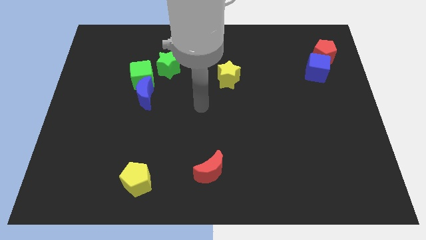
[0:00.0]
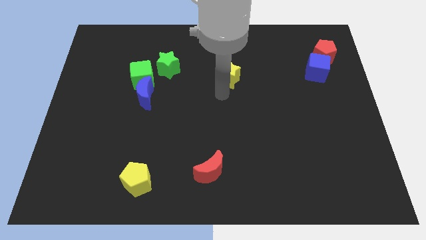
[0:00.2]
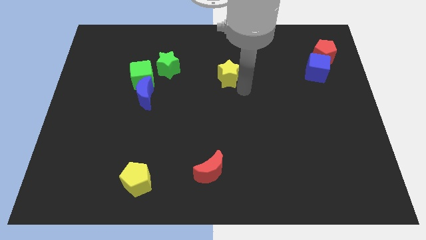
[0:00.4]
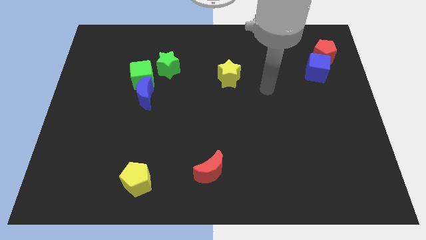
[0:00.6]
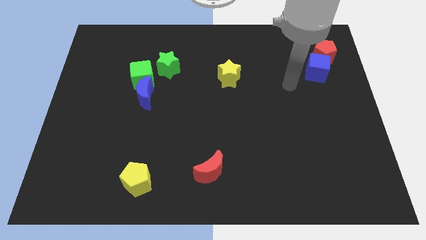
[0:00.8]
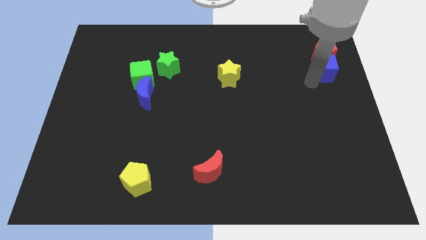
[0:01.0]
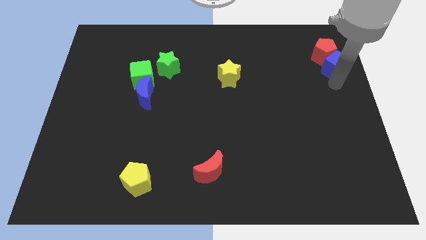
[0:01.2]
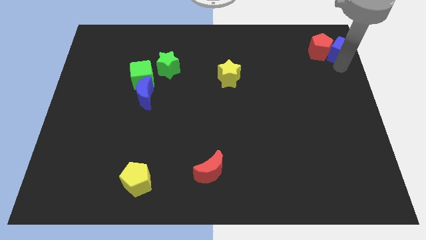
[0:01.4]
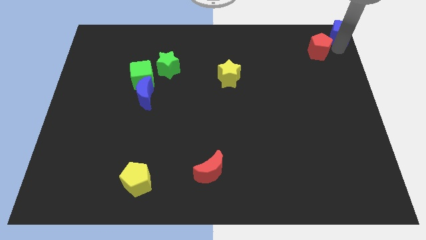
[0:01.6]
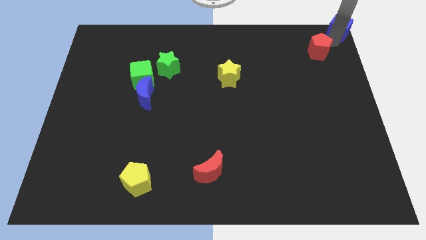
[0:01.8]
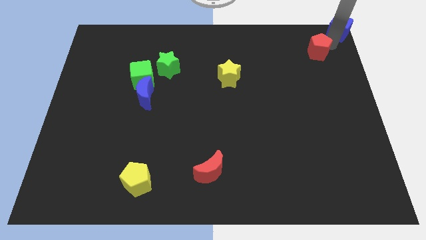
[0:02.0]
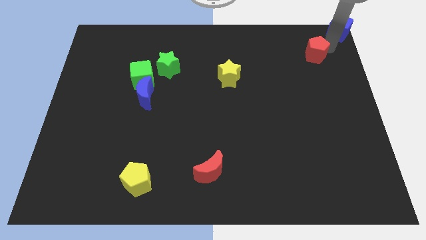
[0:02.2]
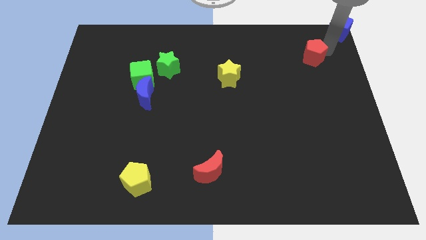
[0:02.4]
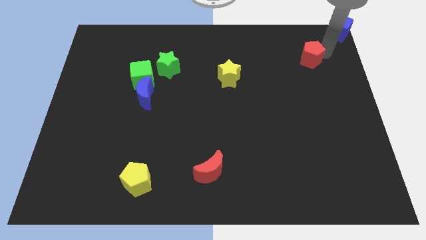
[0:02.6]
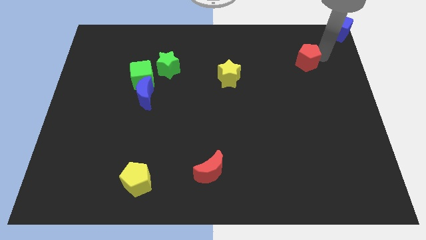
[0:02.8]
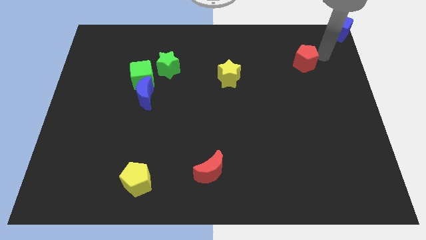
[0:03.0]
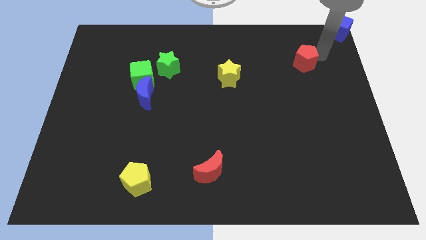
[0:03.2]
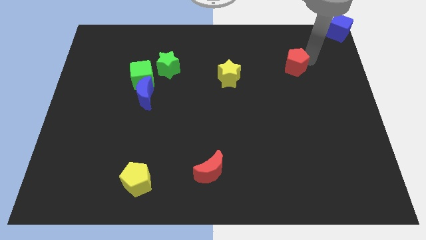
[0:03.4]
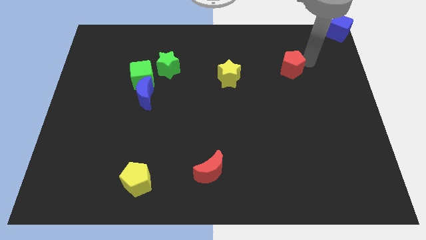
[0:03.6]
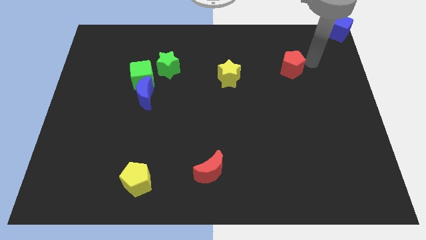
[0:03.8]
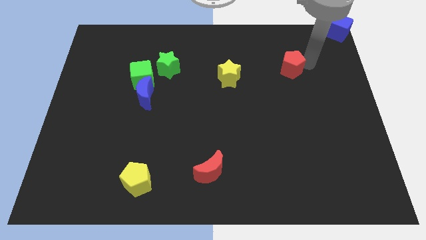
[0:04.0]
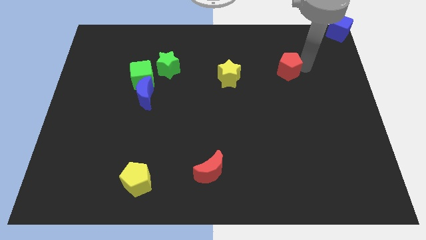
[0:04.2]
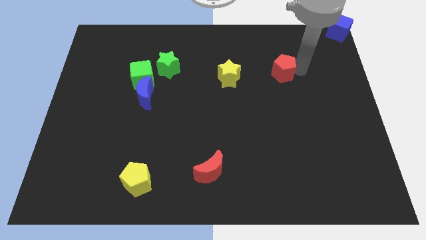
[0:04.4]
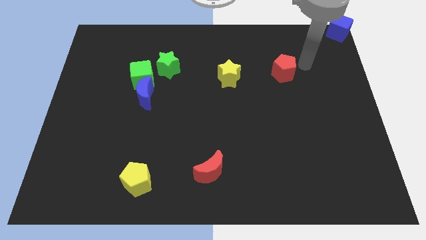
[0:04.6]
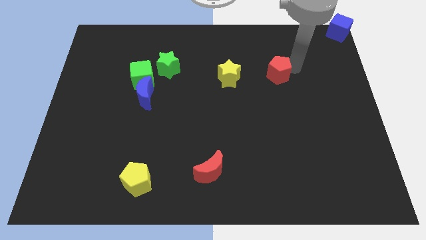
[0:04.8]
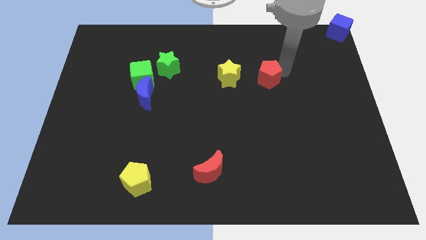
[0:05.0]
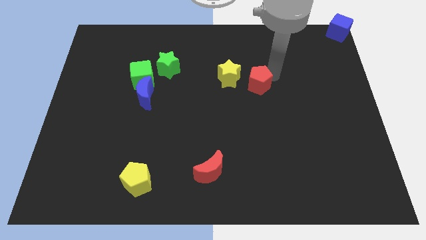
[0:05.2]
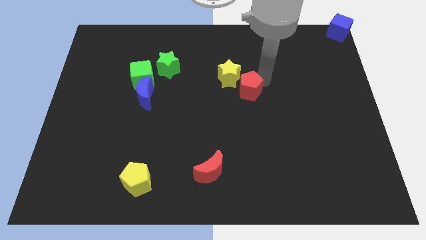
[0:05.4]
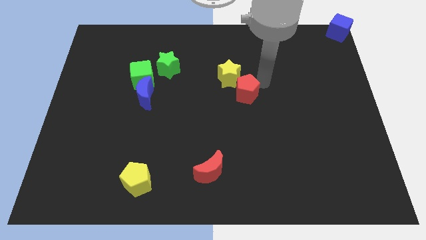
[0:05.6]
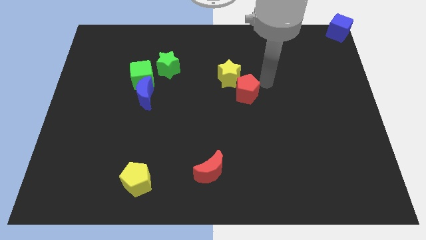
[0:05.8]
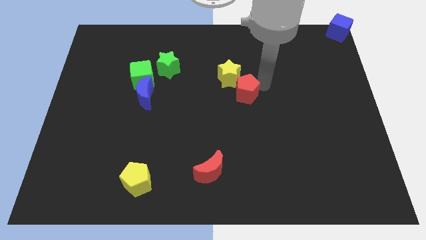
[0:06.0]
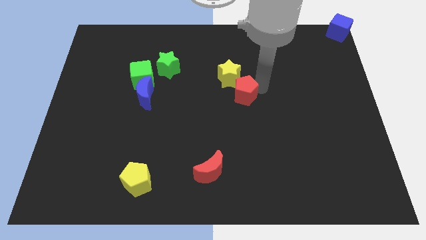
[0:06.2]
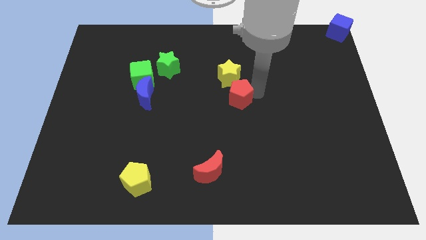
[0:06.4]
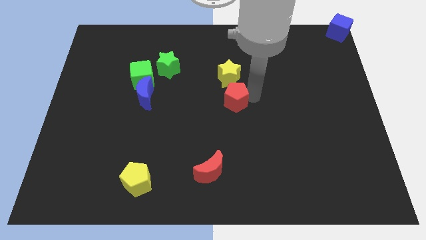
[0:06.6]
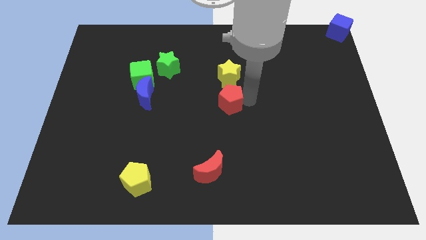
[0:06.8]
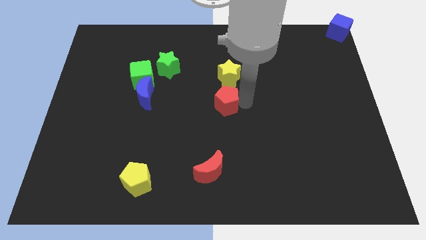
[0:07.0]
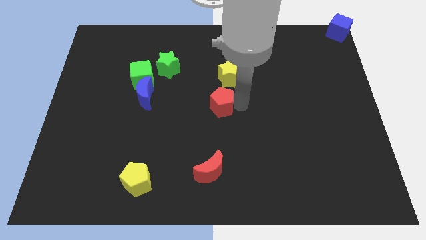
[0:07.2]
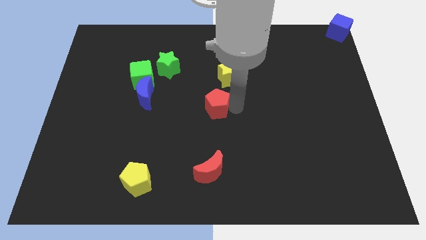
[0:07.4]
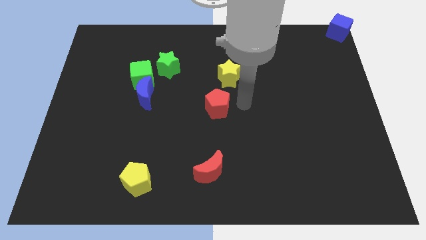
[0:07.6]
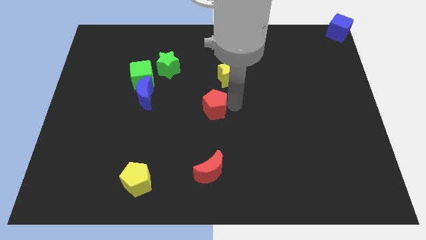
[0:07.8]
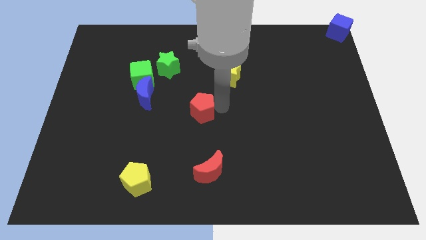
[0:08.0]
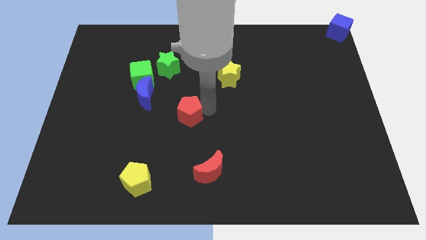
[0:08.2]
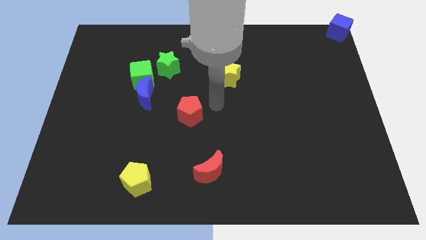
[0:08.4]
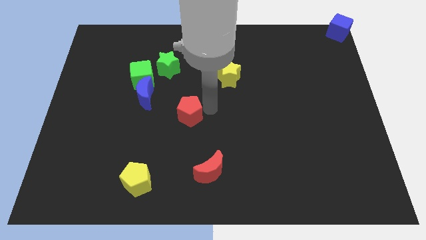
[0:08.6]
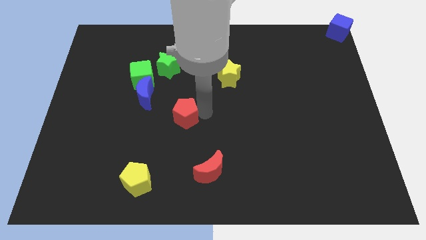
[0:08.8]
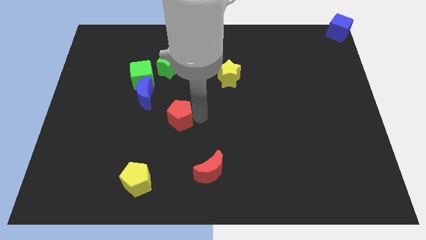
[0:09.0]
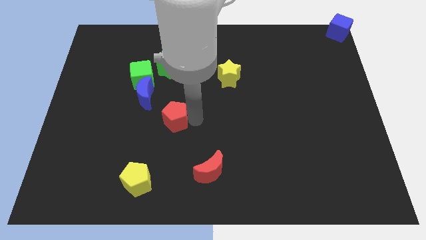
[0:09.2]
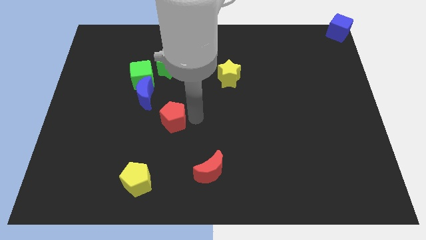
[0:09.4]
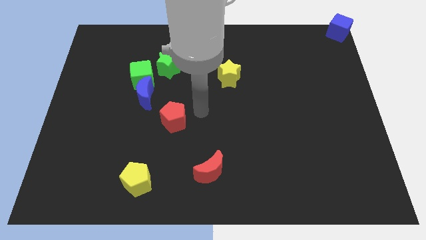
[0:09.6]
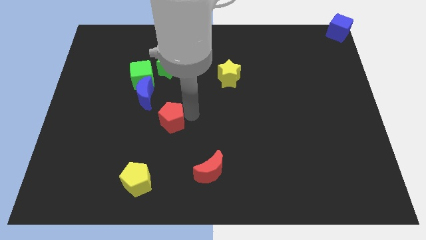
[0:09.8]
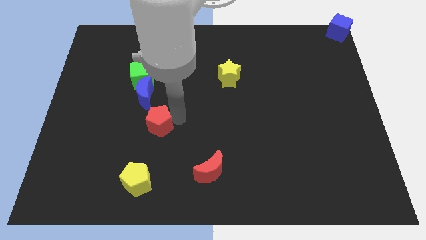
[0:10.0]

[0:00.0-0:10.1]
slide the red pentagon to the bottom side of the blue moon

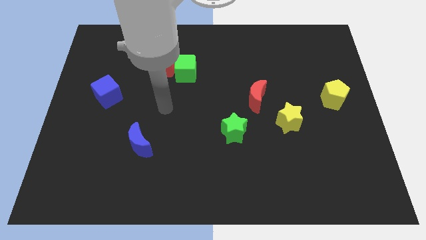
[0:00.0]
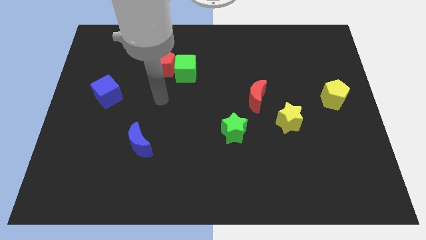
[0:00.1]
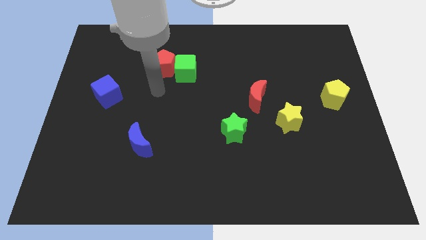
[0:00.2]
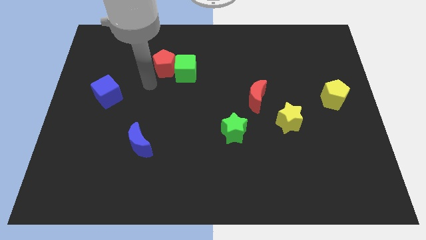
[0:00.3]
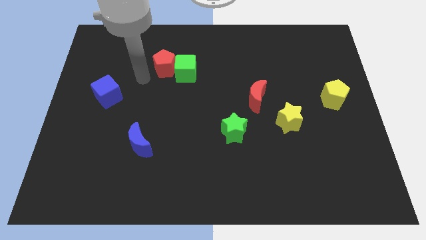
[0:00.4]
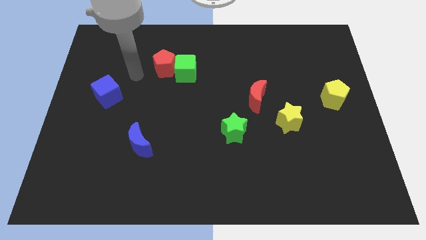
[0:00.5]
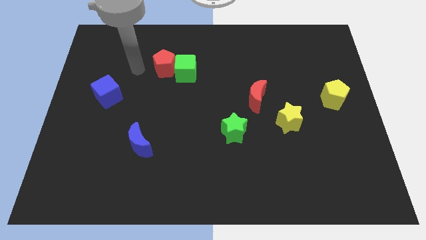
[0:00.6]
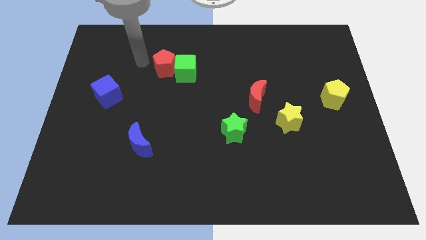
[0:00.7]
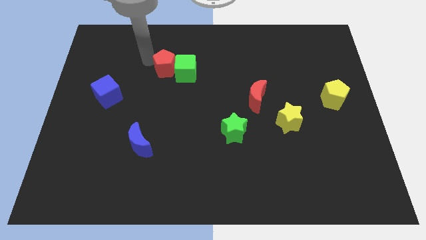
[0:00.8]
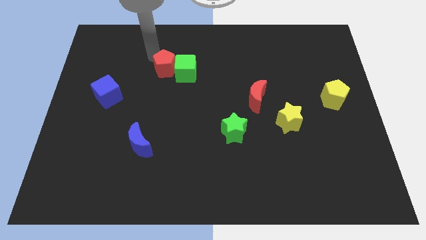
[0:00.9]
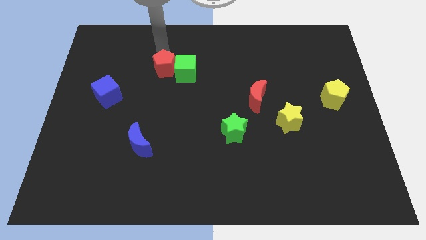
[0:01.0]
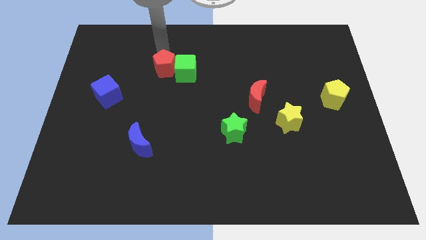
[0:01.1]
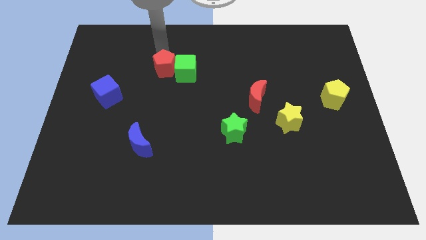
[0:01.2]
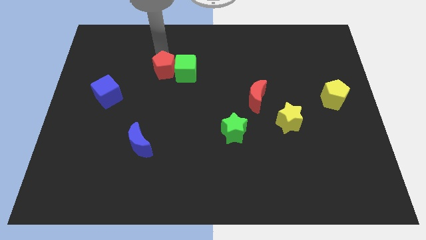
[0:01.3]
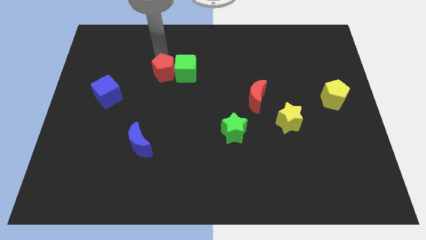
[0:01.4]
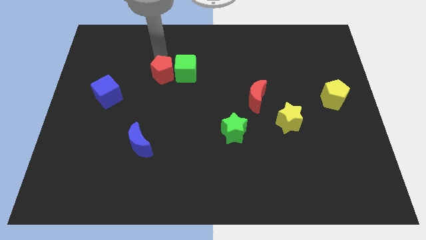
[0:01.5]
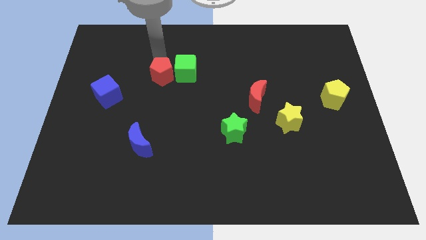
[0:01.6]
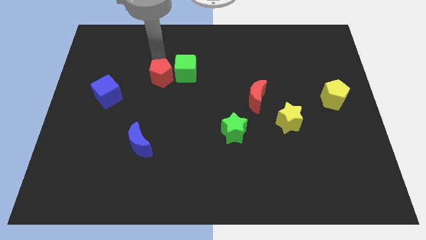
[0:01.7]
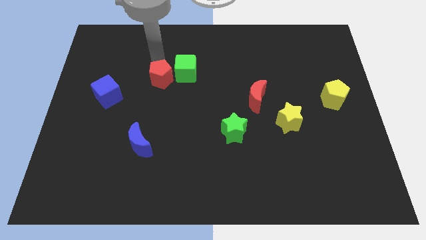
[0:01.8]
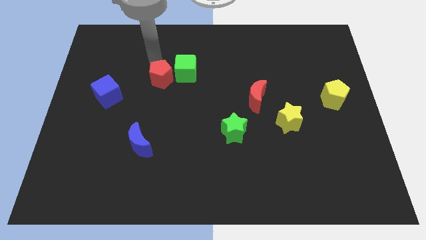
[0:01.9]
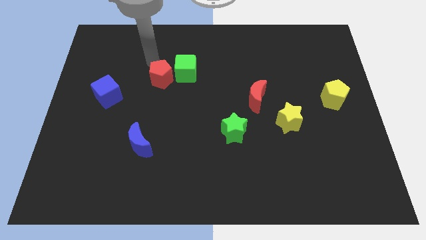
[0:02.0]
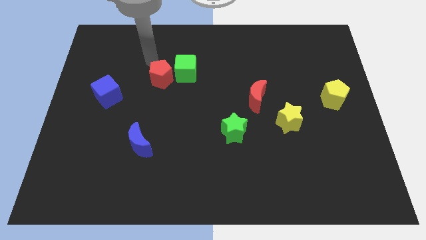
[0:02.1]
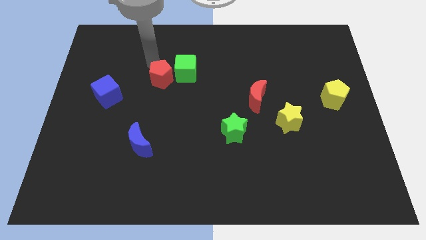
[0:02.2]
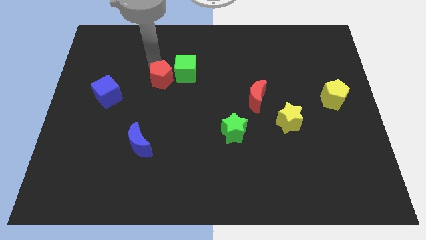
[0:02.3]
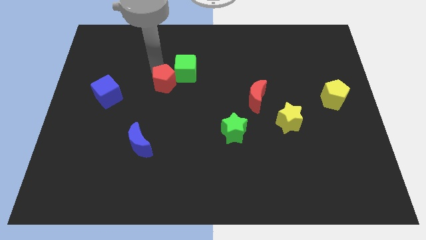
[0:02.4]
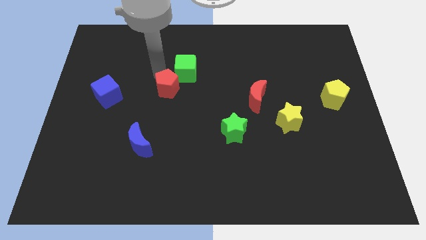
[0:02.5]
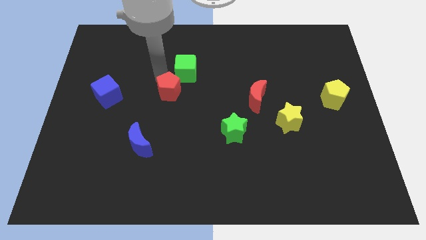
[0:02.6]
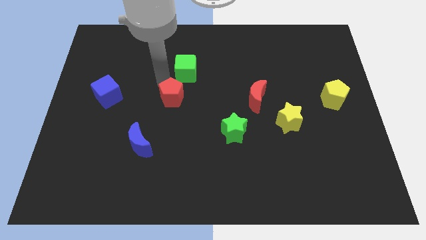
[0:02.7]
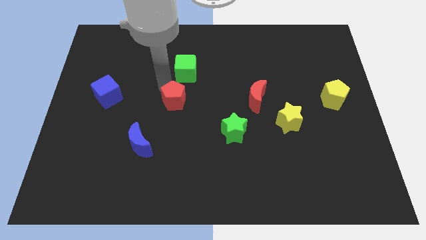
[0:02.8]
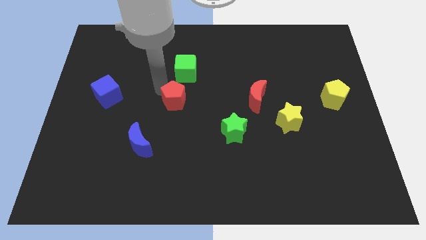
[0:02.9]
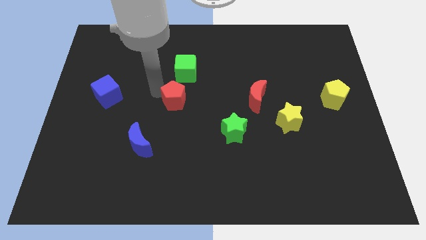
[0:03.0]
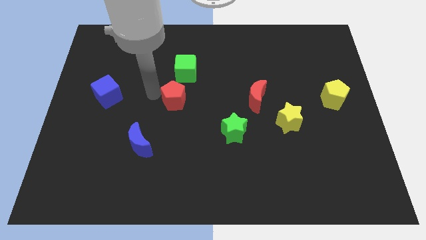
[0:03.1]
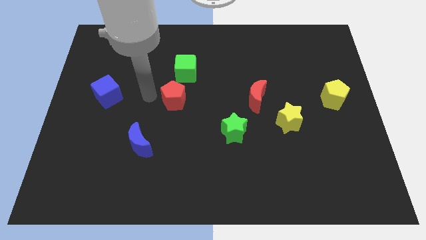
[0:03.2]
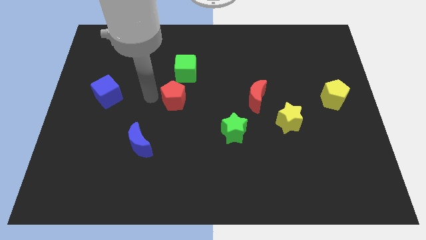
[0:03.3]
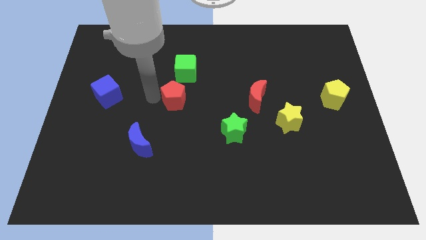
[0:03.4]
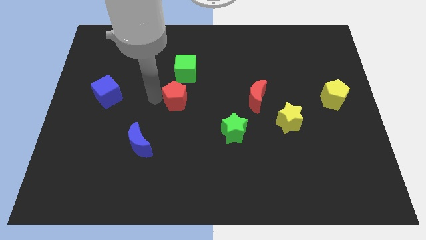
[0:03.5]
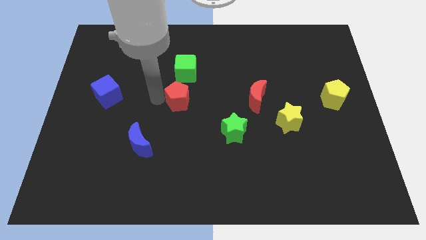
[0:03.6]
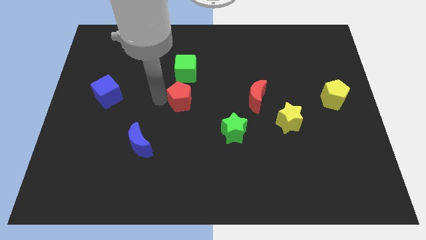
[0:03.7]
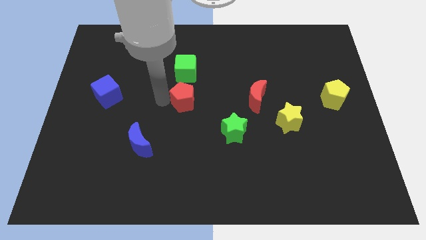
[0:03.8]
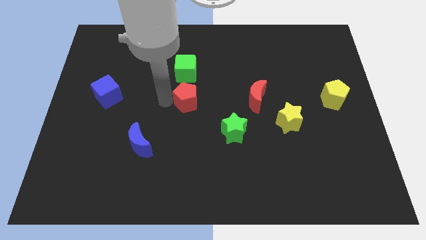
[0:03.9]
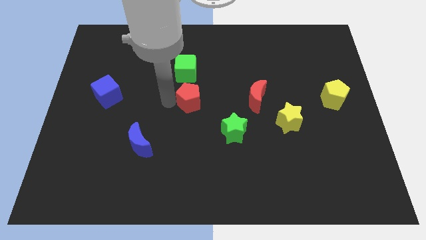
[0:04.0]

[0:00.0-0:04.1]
slide the red pentagon to the left side of the red moon
